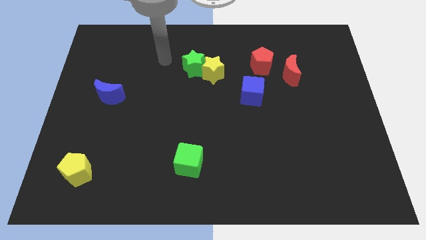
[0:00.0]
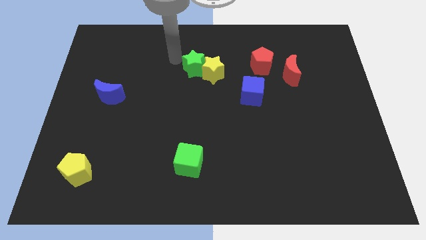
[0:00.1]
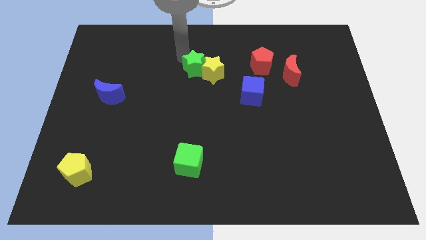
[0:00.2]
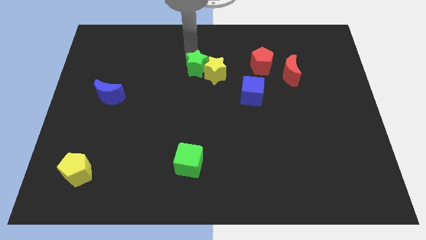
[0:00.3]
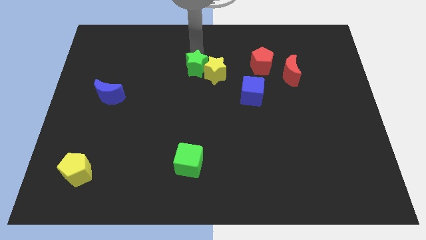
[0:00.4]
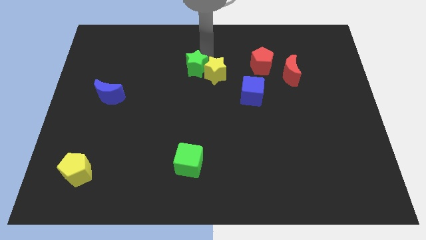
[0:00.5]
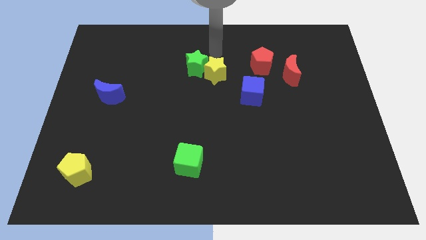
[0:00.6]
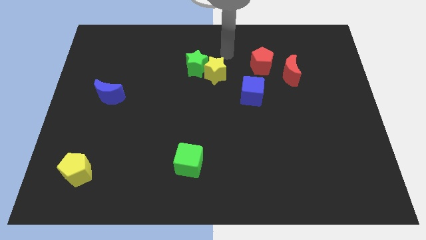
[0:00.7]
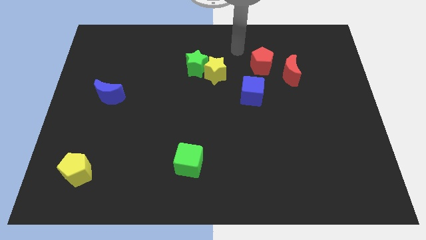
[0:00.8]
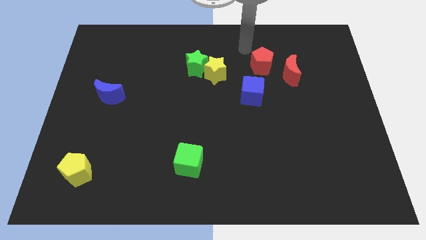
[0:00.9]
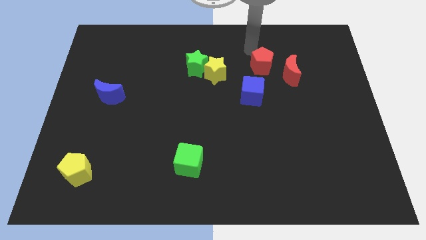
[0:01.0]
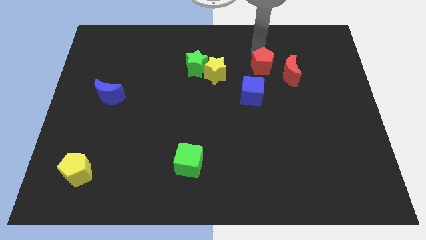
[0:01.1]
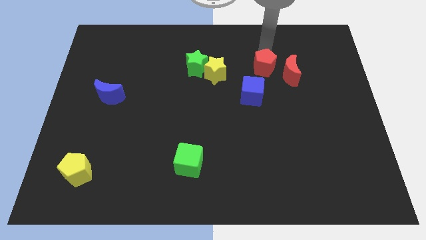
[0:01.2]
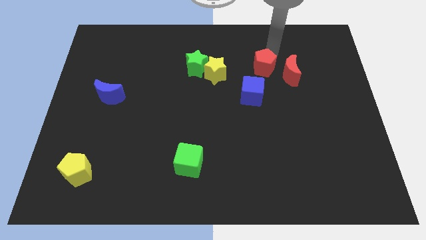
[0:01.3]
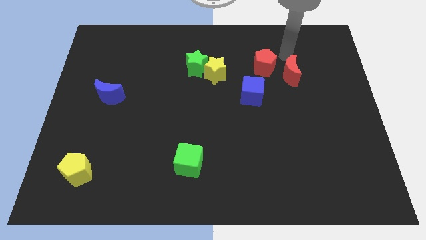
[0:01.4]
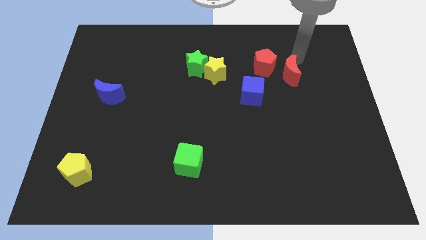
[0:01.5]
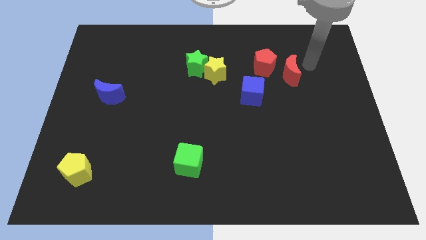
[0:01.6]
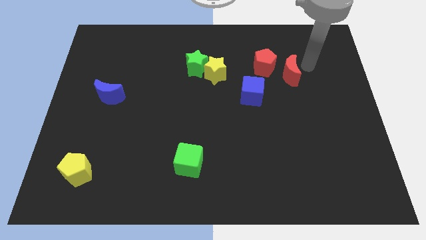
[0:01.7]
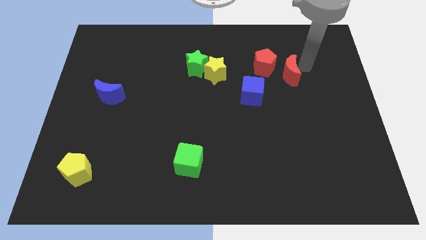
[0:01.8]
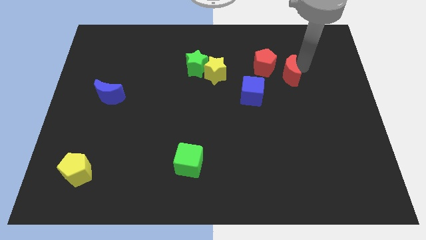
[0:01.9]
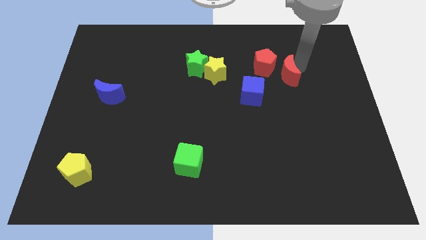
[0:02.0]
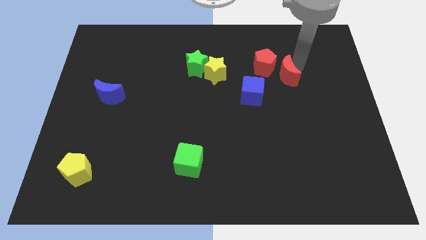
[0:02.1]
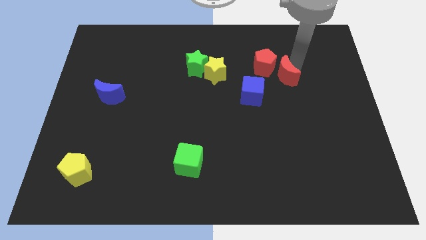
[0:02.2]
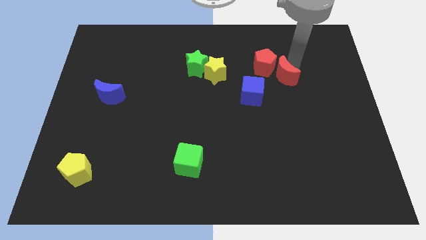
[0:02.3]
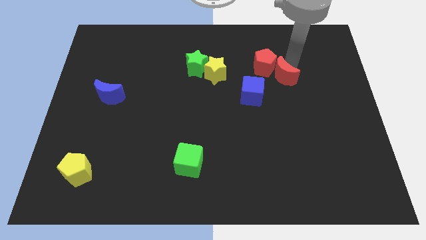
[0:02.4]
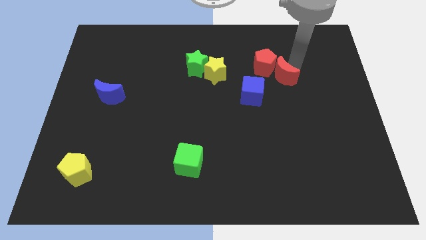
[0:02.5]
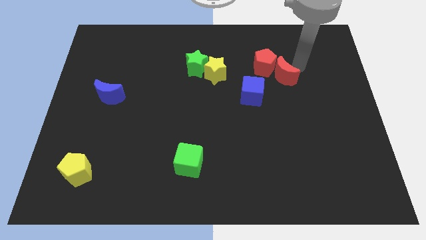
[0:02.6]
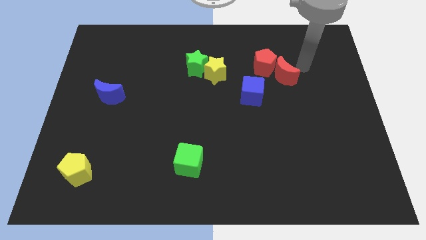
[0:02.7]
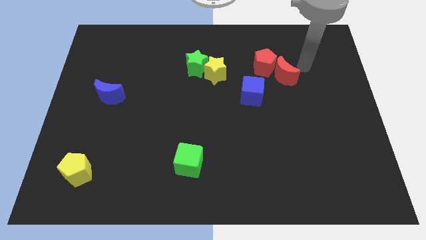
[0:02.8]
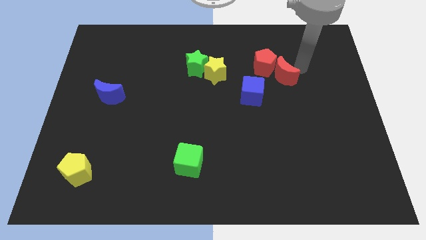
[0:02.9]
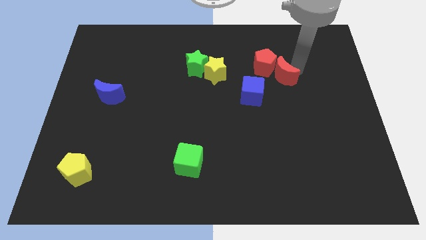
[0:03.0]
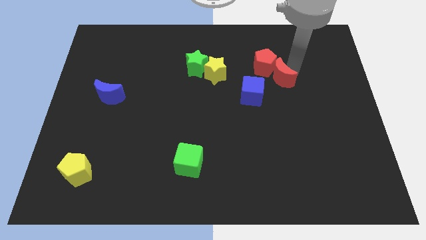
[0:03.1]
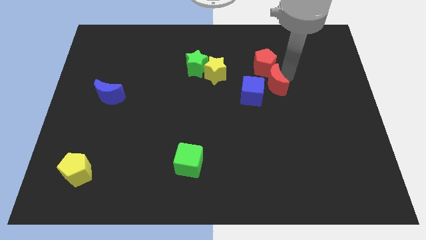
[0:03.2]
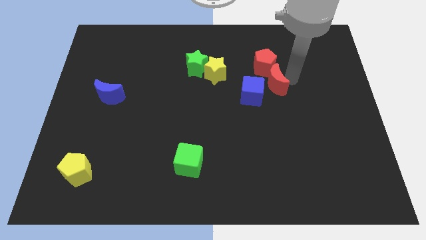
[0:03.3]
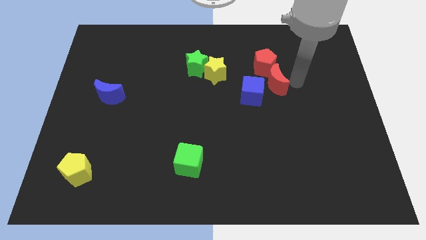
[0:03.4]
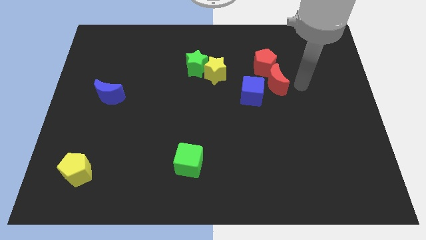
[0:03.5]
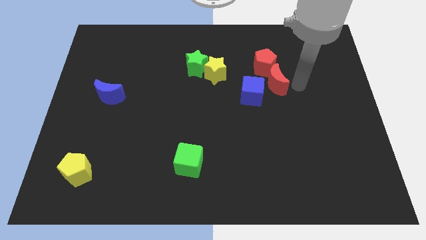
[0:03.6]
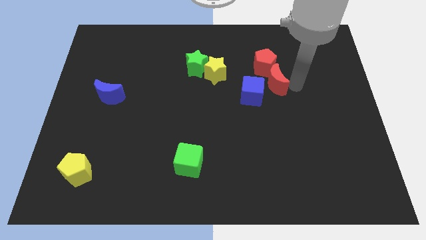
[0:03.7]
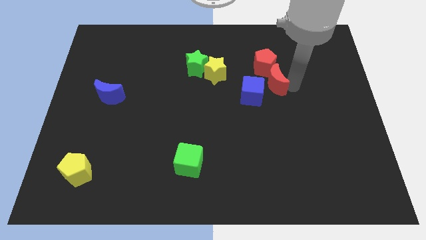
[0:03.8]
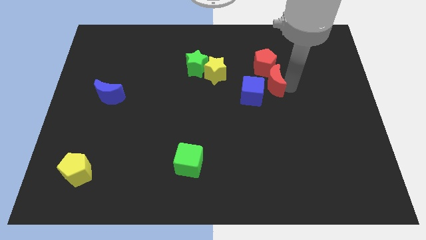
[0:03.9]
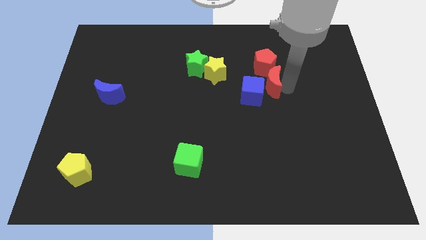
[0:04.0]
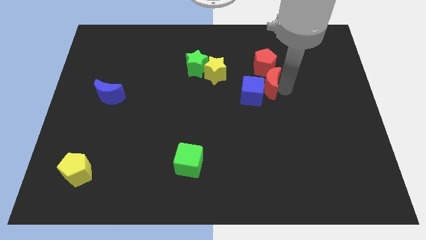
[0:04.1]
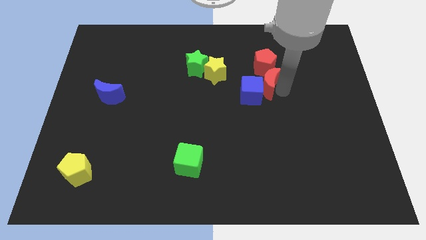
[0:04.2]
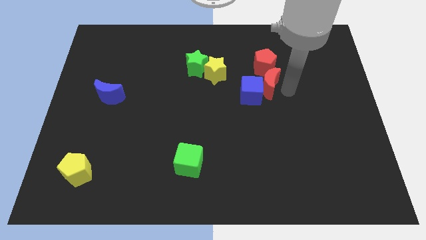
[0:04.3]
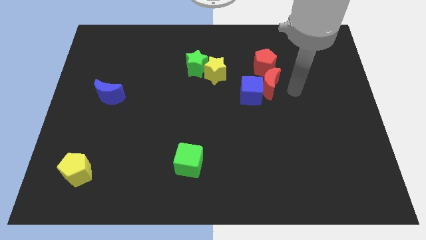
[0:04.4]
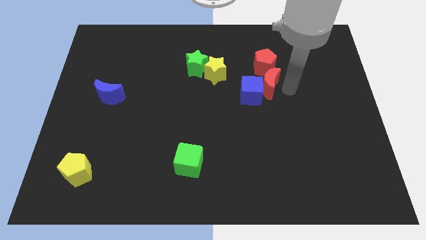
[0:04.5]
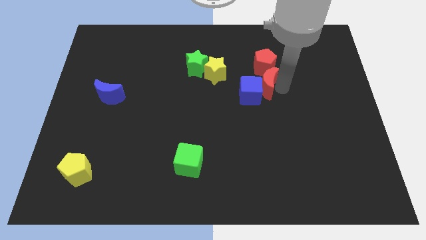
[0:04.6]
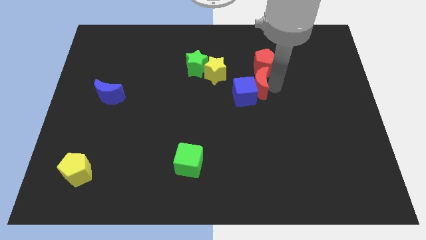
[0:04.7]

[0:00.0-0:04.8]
slide the red moon diagonally down and to the left of the red pentagon

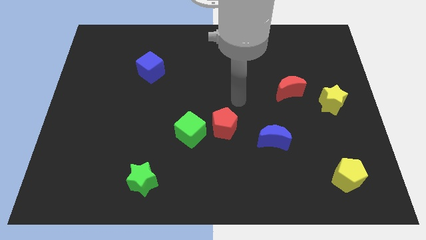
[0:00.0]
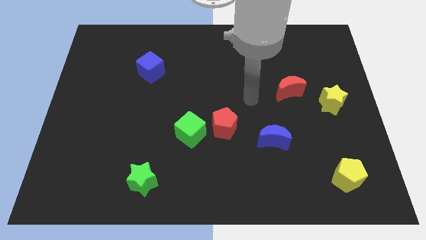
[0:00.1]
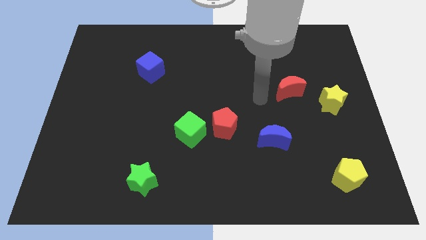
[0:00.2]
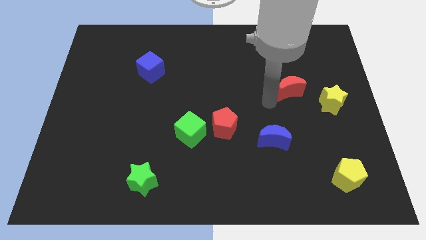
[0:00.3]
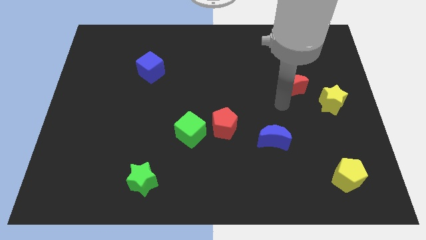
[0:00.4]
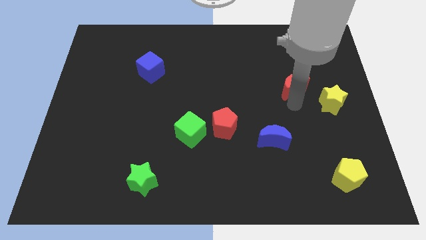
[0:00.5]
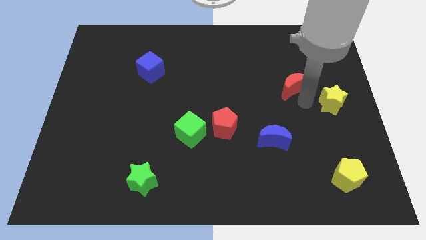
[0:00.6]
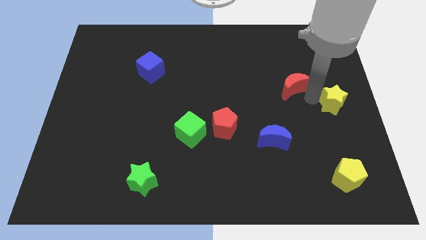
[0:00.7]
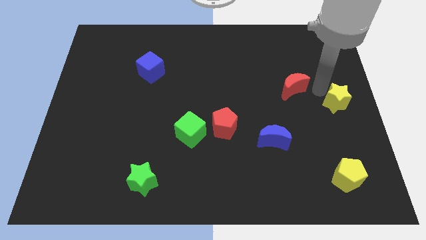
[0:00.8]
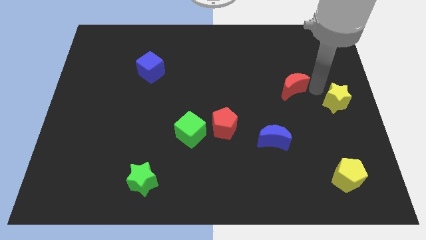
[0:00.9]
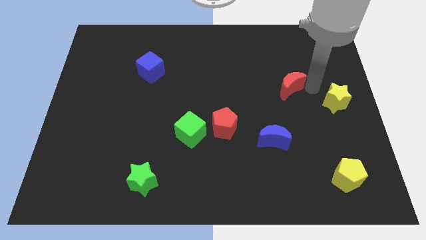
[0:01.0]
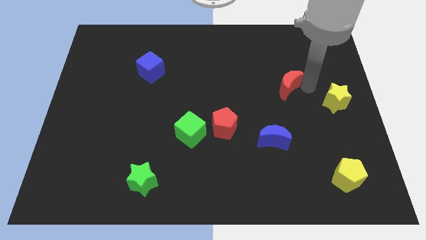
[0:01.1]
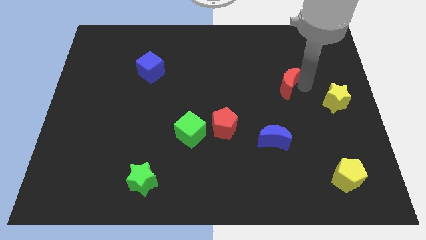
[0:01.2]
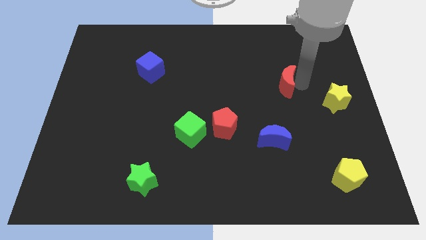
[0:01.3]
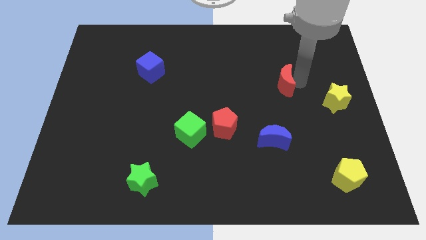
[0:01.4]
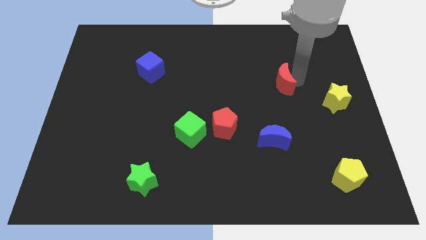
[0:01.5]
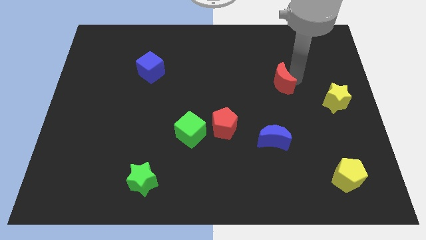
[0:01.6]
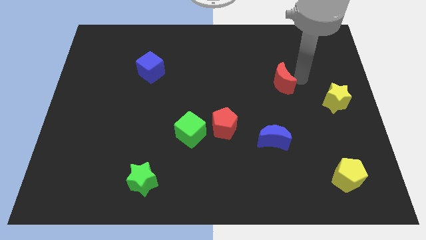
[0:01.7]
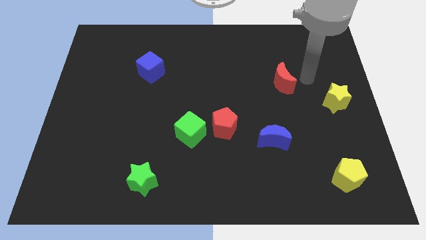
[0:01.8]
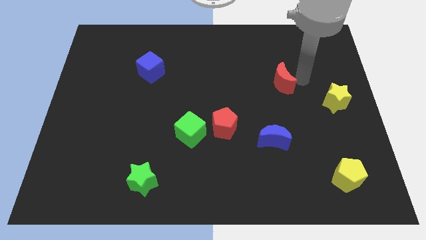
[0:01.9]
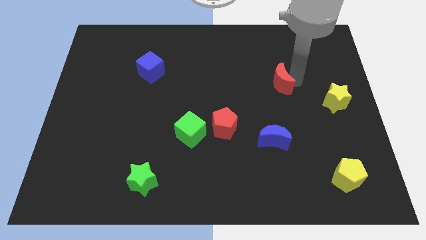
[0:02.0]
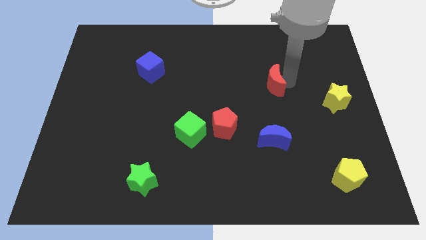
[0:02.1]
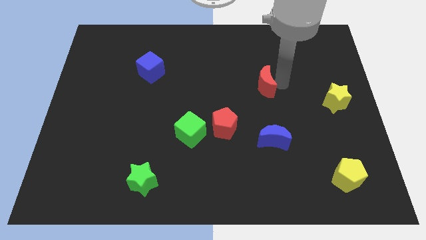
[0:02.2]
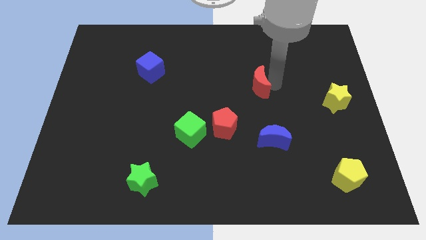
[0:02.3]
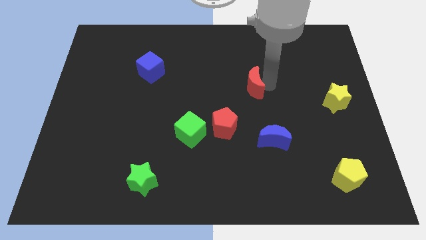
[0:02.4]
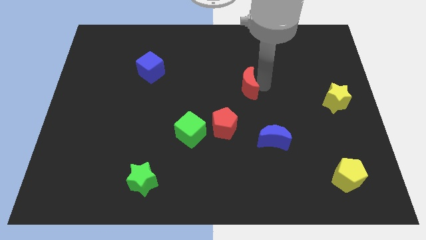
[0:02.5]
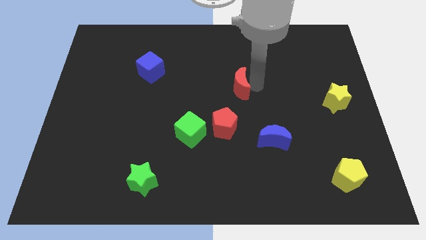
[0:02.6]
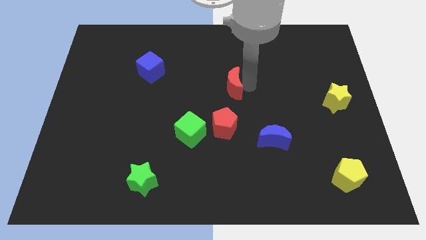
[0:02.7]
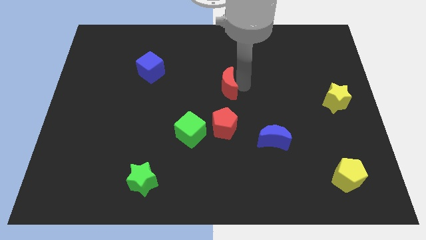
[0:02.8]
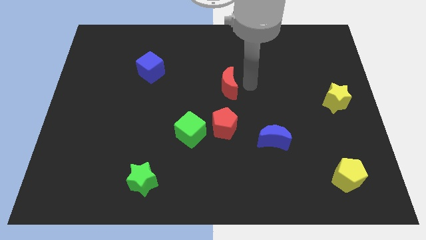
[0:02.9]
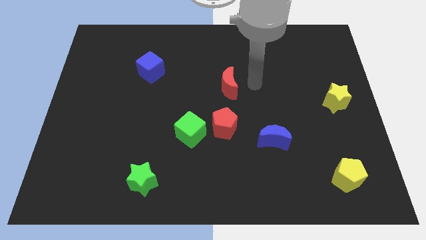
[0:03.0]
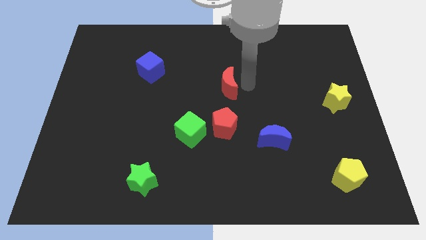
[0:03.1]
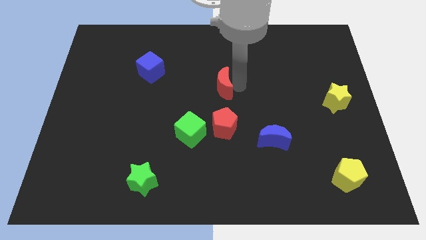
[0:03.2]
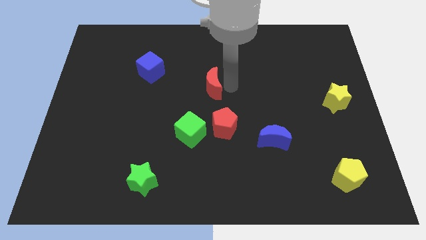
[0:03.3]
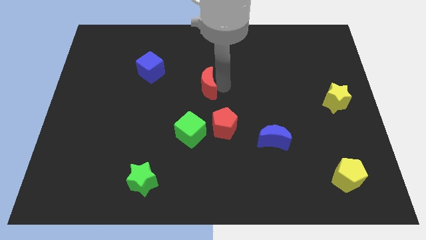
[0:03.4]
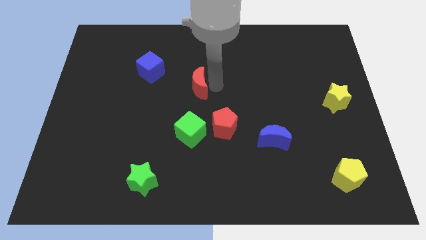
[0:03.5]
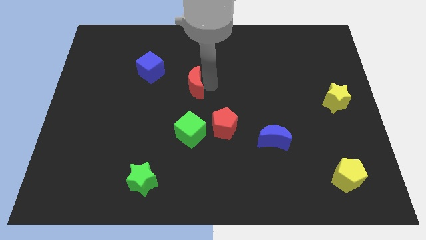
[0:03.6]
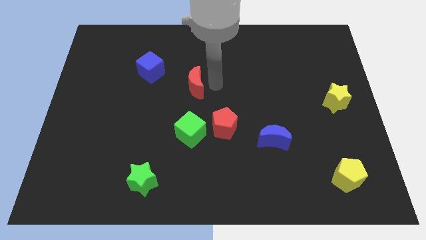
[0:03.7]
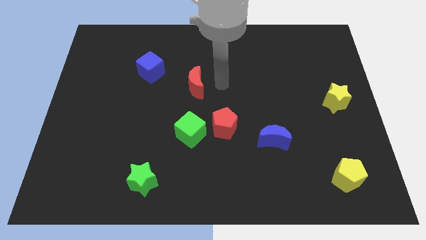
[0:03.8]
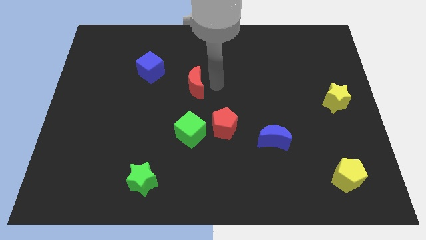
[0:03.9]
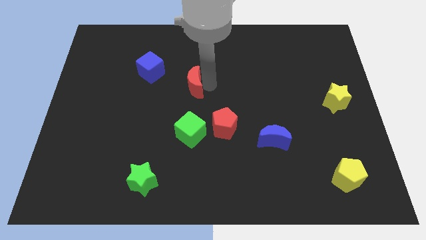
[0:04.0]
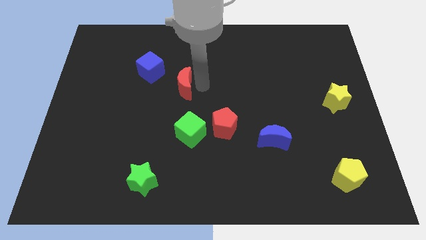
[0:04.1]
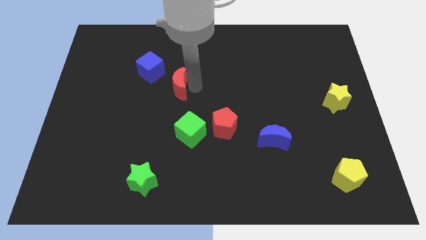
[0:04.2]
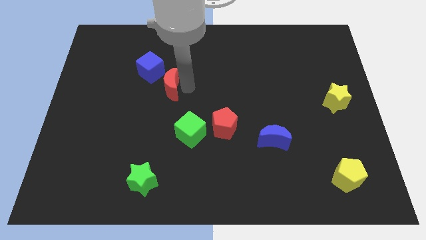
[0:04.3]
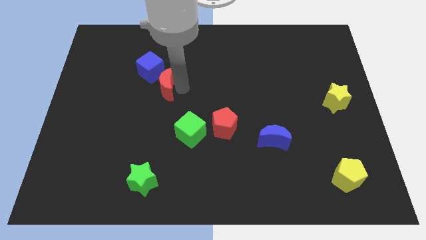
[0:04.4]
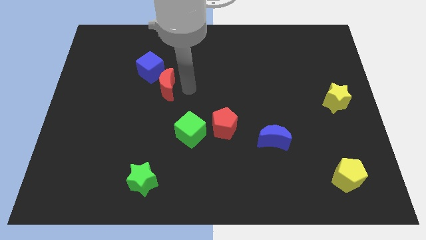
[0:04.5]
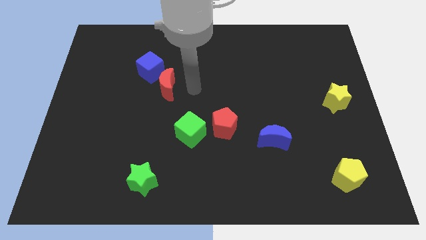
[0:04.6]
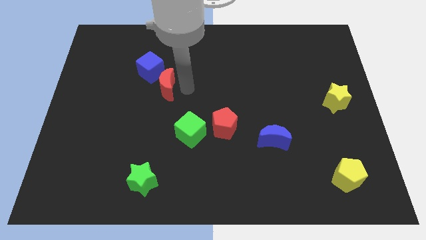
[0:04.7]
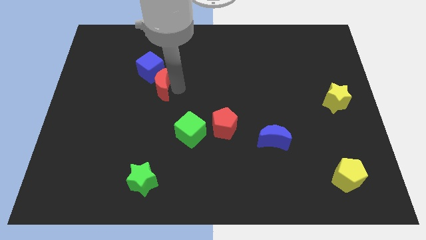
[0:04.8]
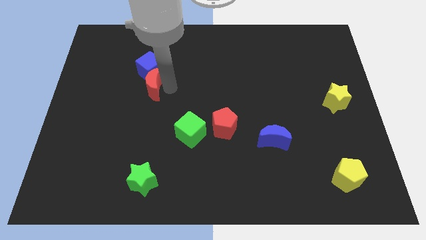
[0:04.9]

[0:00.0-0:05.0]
move the red moon to the bottom left of the blue cube
